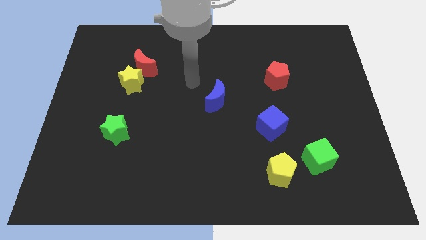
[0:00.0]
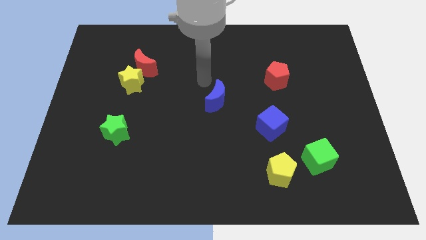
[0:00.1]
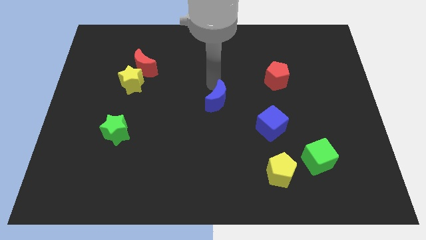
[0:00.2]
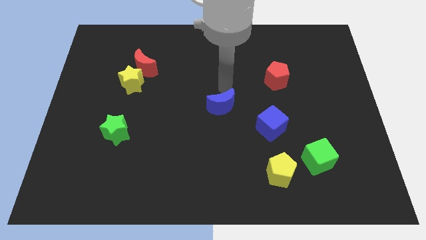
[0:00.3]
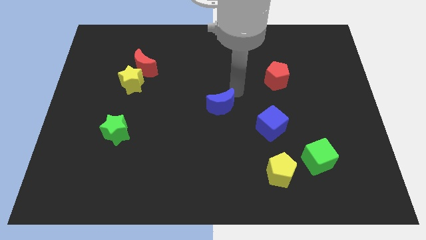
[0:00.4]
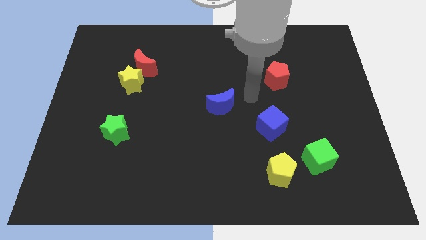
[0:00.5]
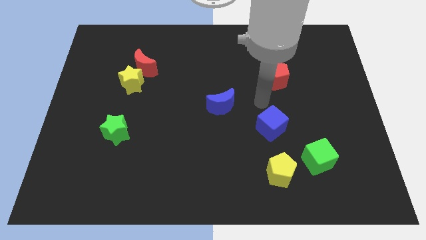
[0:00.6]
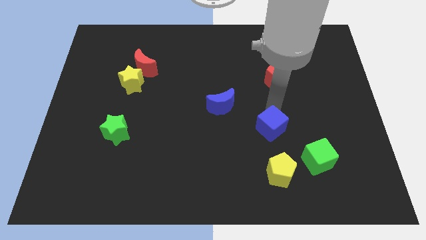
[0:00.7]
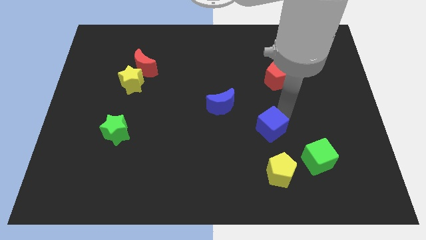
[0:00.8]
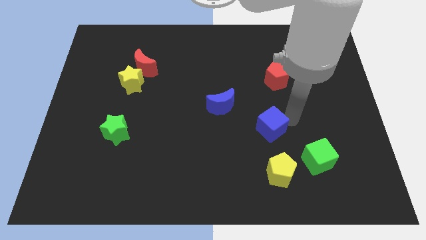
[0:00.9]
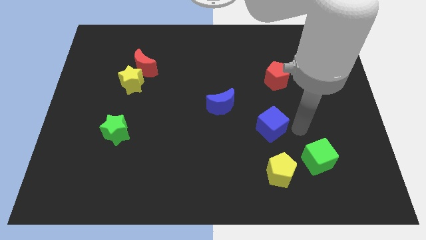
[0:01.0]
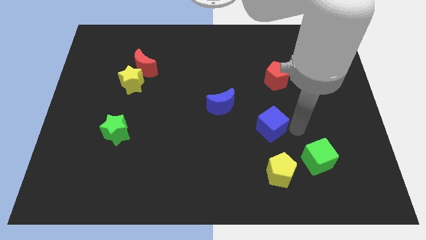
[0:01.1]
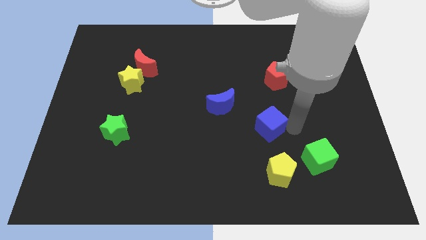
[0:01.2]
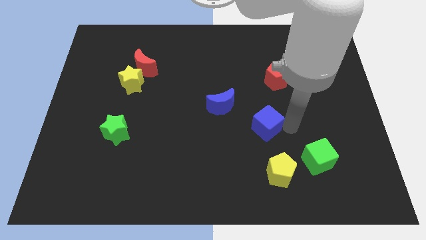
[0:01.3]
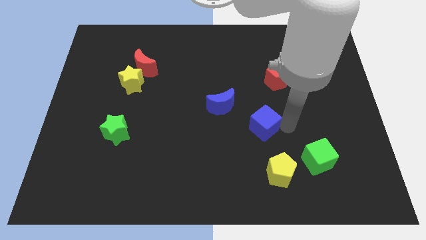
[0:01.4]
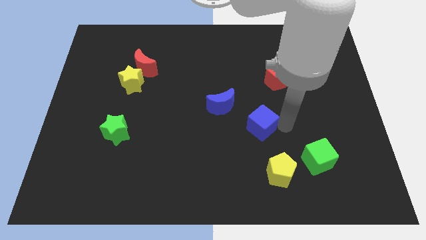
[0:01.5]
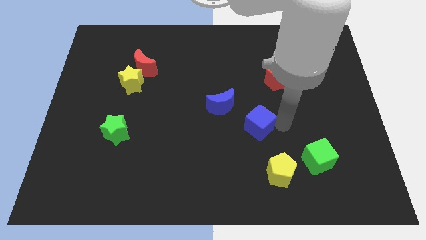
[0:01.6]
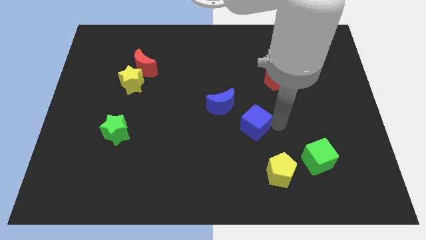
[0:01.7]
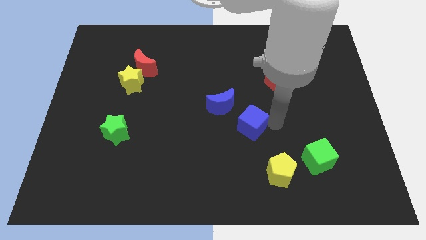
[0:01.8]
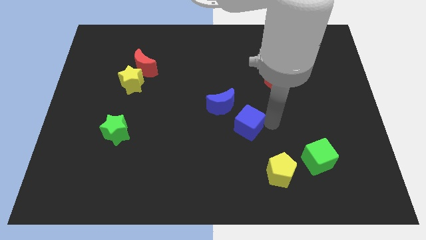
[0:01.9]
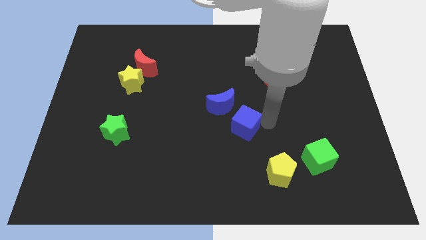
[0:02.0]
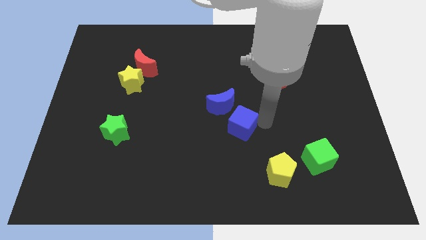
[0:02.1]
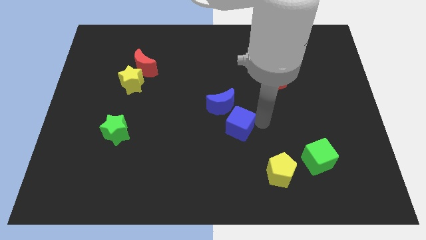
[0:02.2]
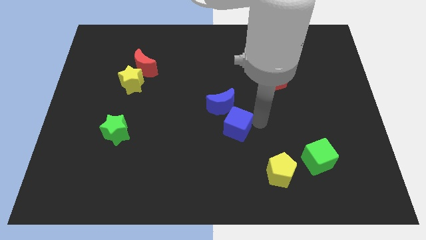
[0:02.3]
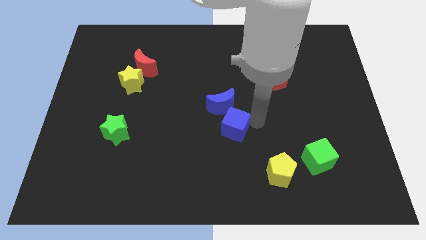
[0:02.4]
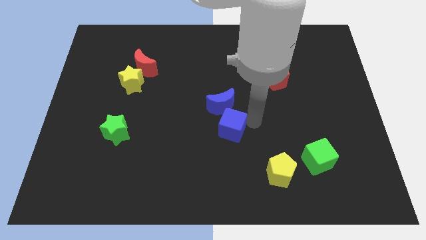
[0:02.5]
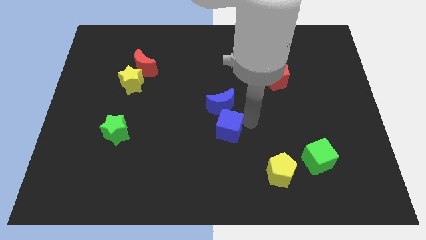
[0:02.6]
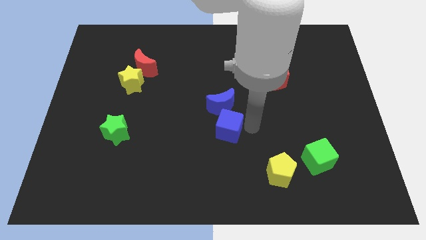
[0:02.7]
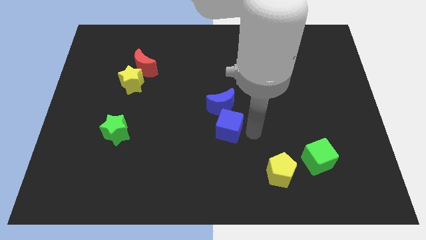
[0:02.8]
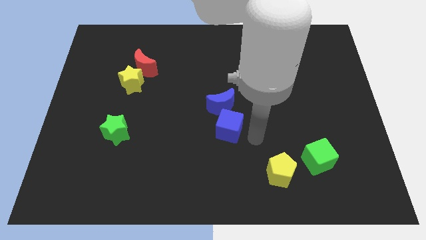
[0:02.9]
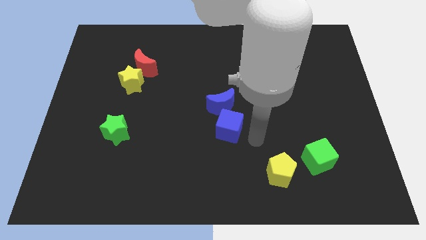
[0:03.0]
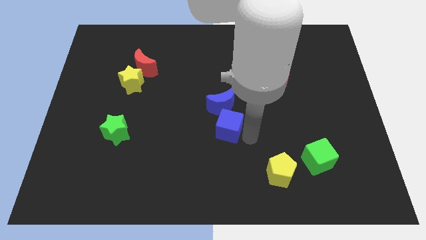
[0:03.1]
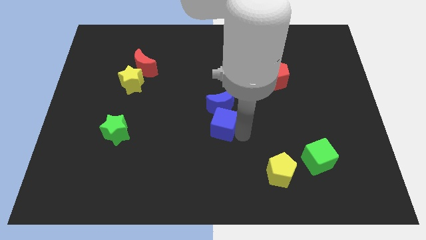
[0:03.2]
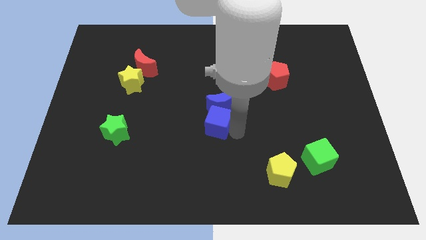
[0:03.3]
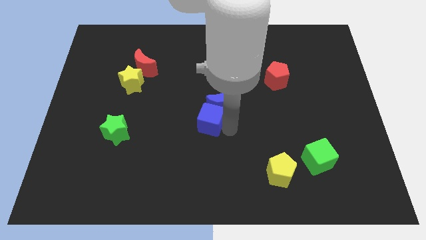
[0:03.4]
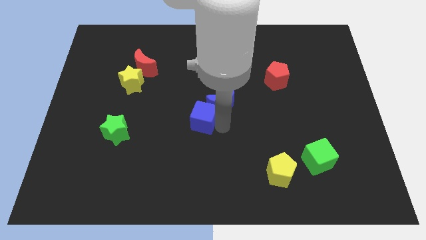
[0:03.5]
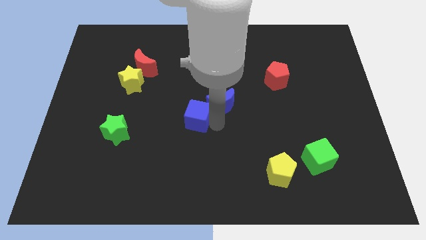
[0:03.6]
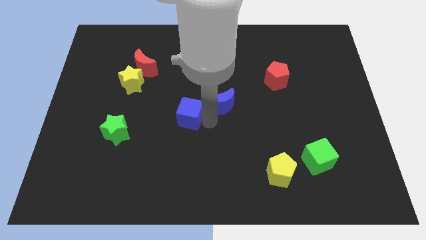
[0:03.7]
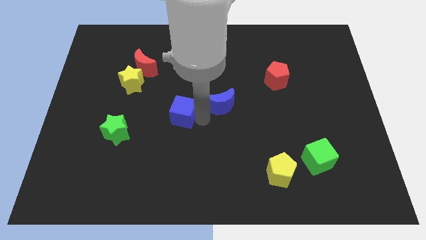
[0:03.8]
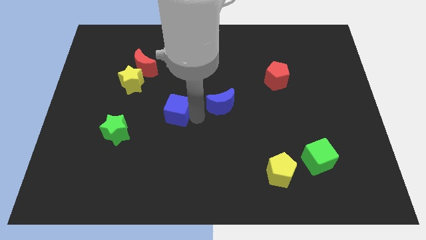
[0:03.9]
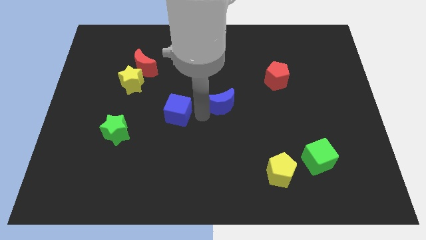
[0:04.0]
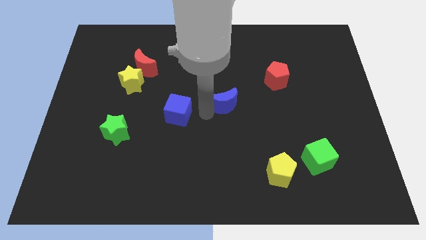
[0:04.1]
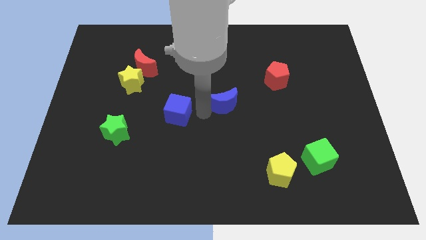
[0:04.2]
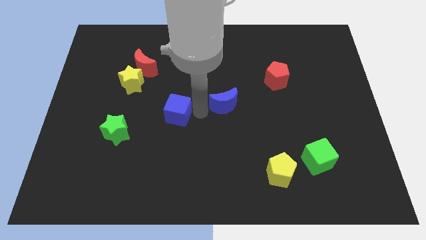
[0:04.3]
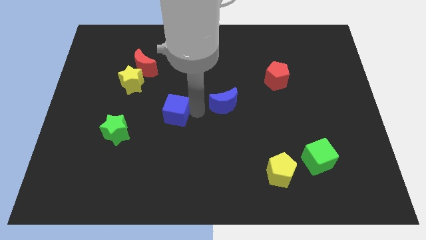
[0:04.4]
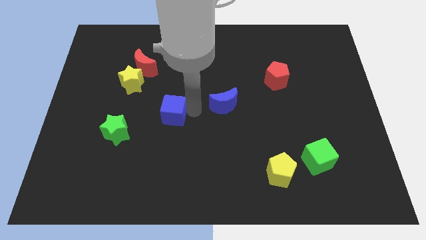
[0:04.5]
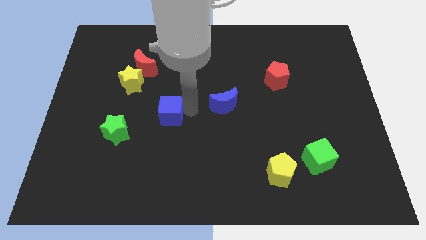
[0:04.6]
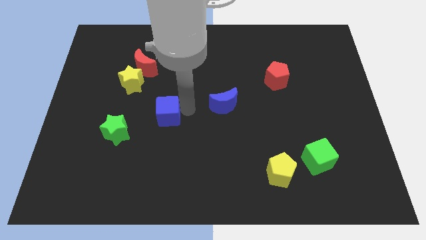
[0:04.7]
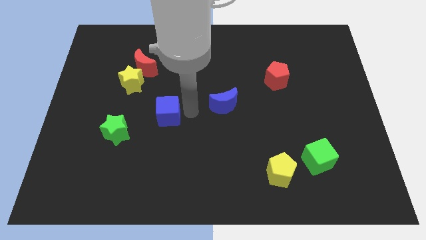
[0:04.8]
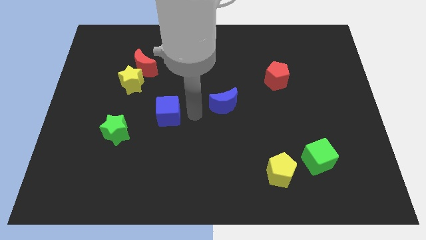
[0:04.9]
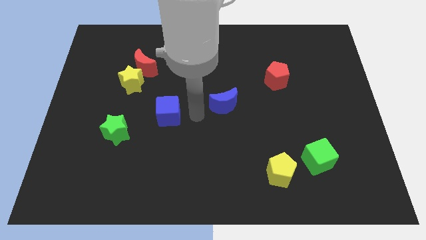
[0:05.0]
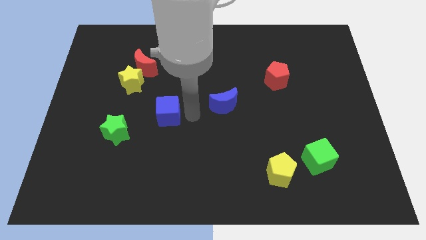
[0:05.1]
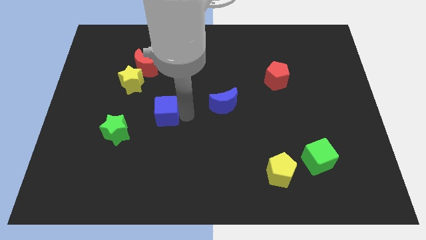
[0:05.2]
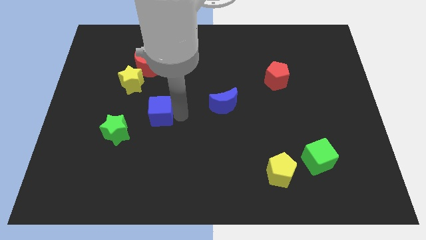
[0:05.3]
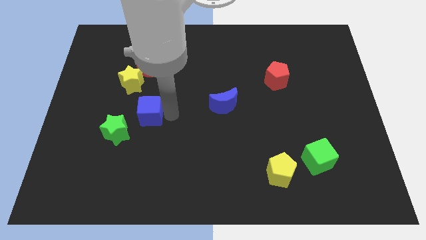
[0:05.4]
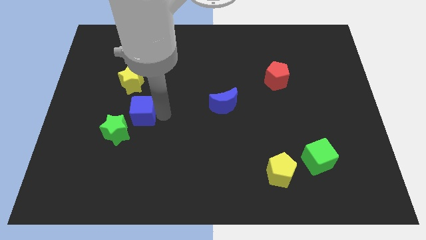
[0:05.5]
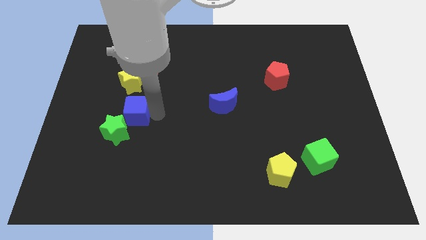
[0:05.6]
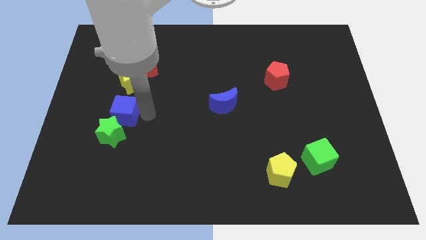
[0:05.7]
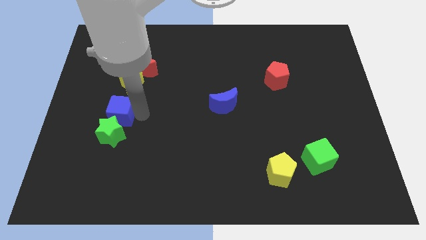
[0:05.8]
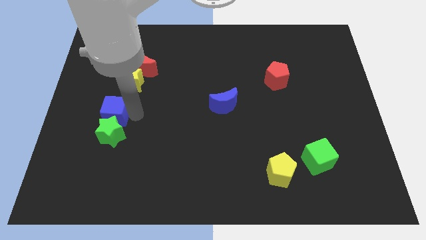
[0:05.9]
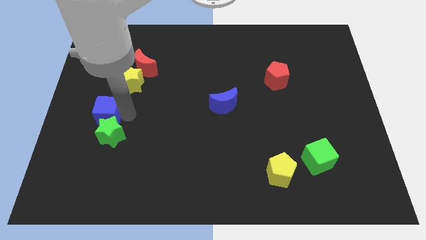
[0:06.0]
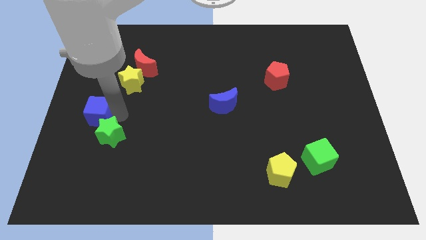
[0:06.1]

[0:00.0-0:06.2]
push the blue cube to the left side

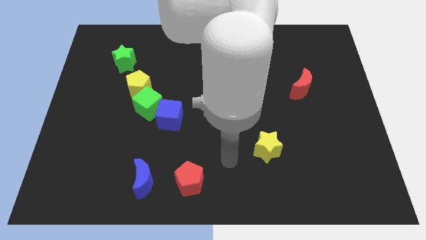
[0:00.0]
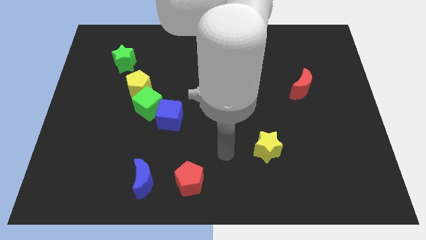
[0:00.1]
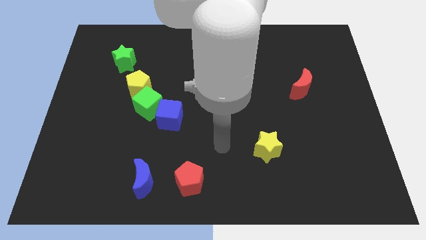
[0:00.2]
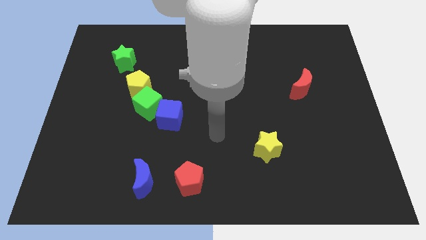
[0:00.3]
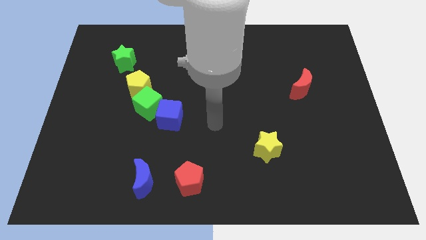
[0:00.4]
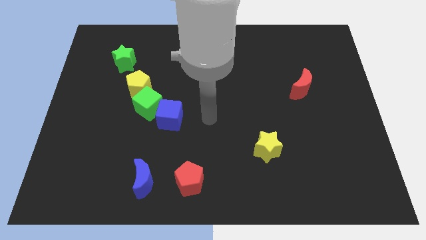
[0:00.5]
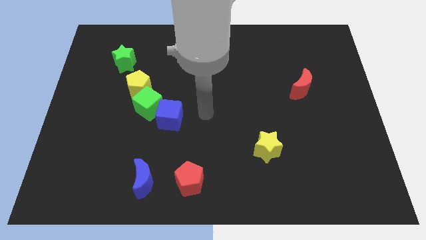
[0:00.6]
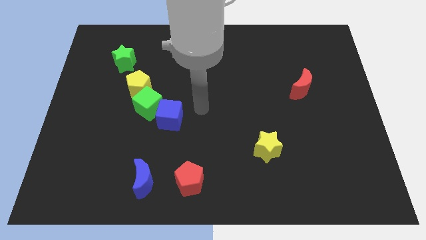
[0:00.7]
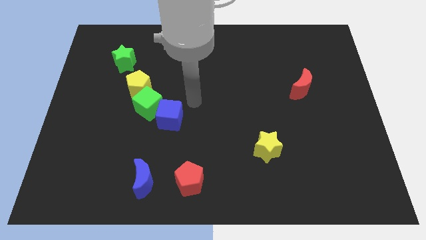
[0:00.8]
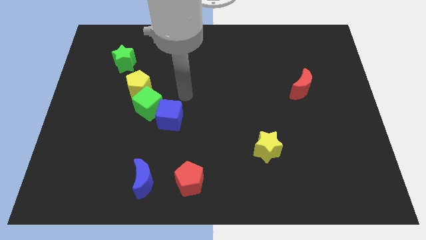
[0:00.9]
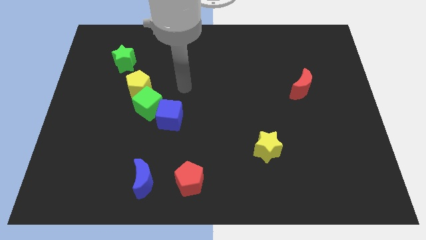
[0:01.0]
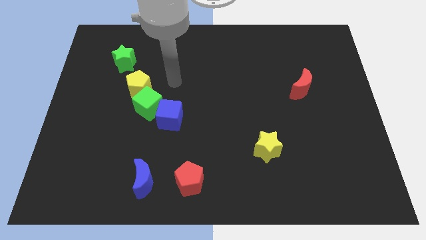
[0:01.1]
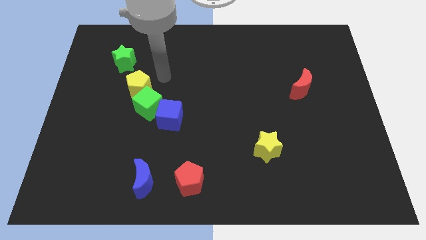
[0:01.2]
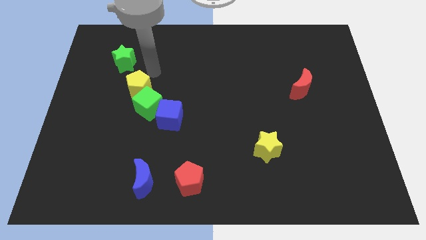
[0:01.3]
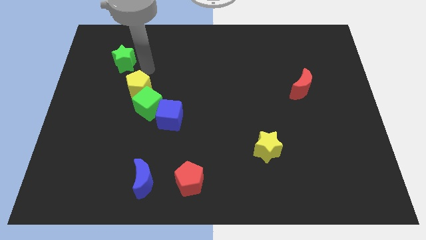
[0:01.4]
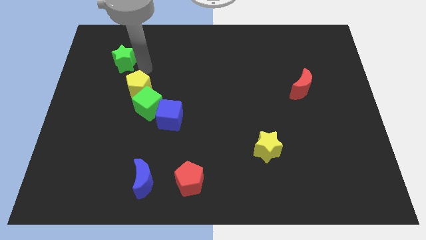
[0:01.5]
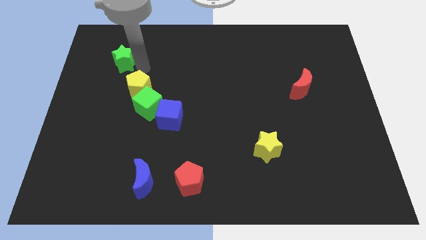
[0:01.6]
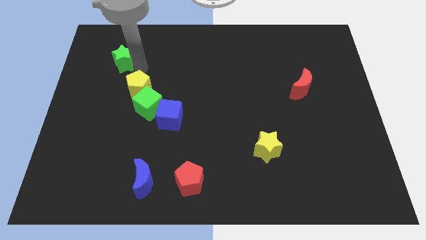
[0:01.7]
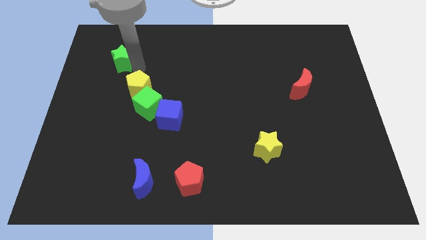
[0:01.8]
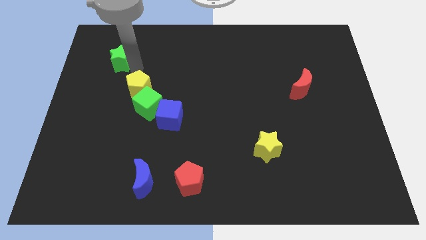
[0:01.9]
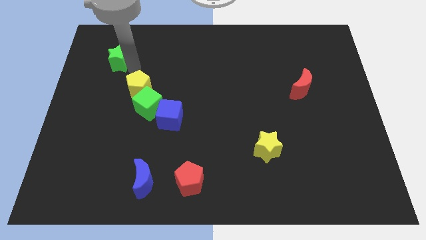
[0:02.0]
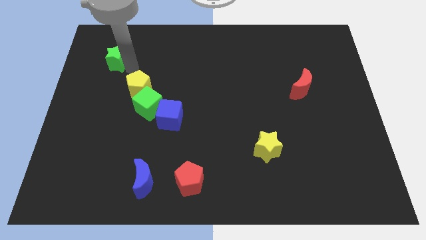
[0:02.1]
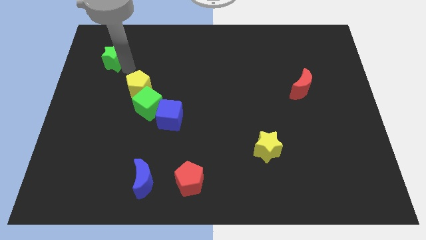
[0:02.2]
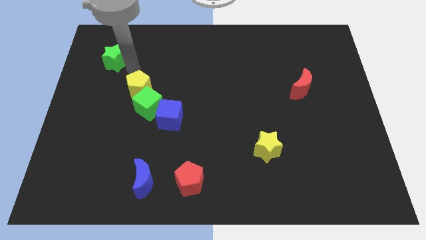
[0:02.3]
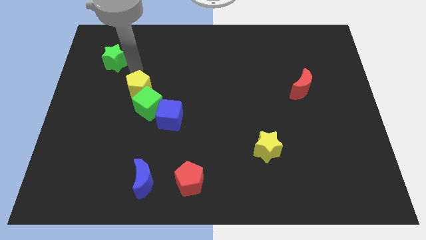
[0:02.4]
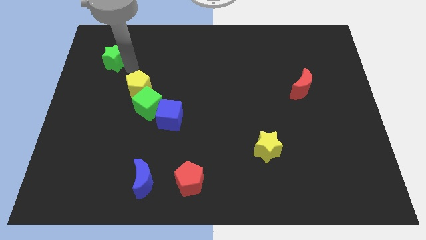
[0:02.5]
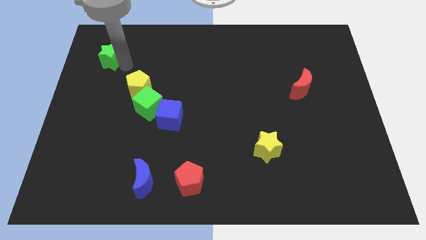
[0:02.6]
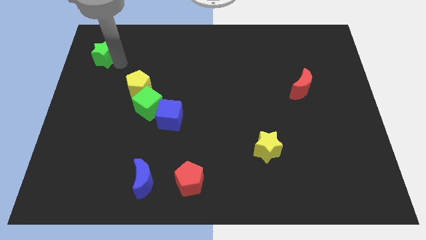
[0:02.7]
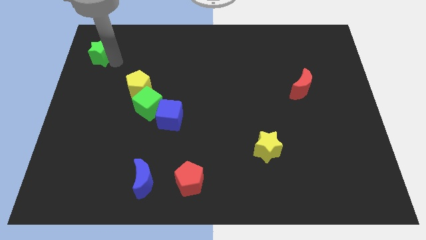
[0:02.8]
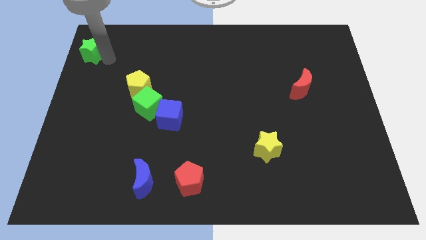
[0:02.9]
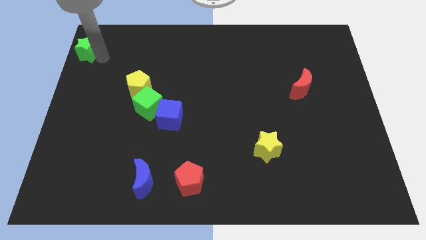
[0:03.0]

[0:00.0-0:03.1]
put the green star to the top left corner
